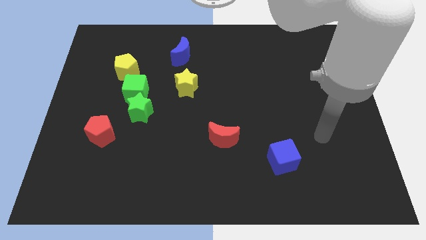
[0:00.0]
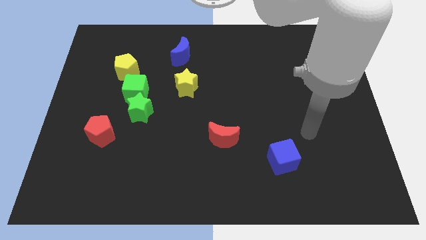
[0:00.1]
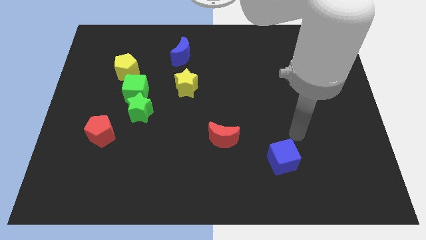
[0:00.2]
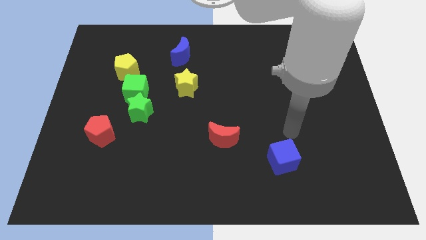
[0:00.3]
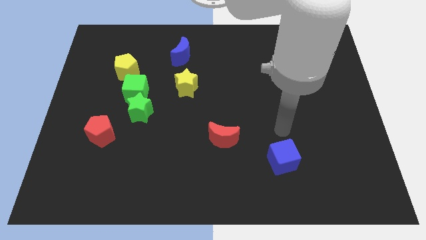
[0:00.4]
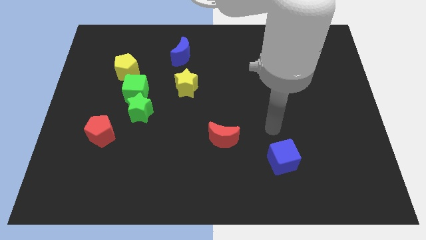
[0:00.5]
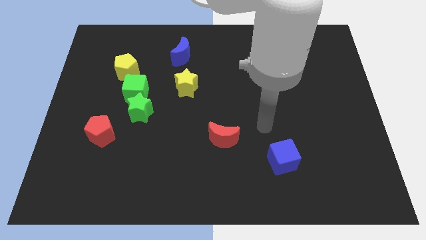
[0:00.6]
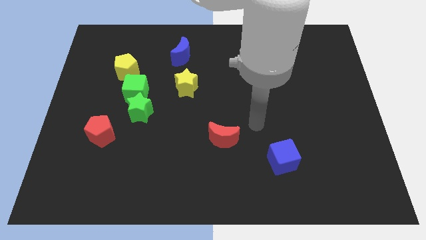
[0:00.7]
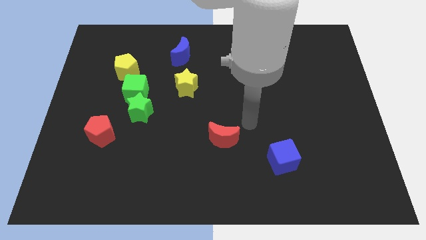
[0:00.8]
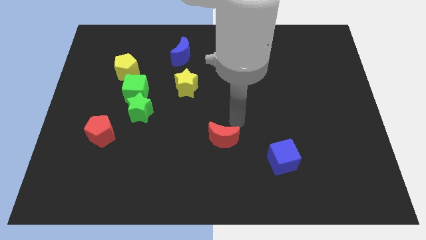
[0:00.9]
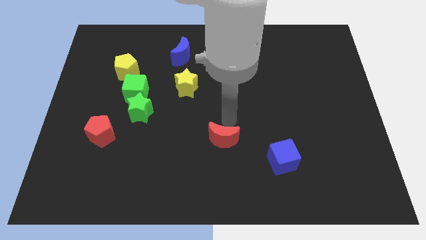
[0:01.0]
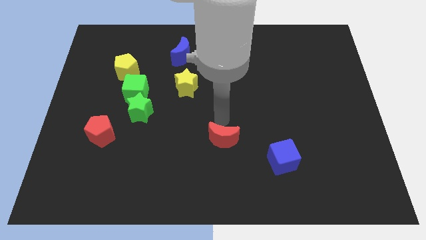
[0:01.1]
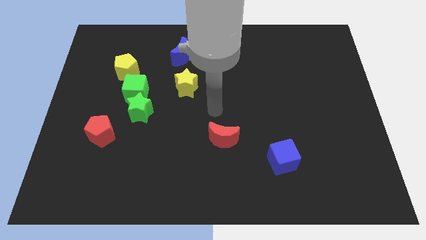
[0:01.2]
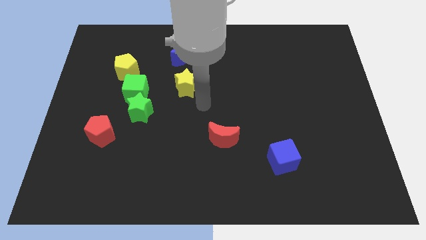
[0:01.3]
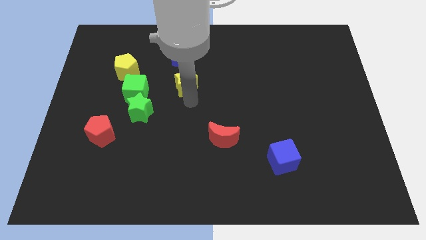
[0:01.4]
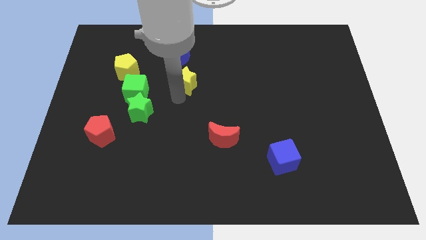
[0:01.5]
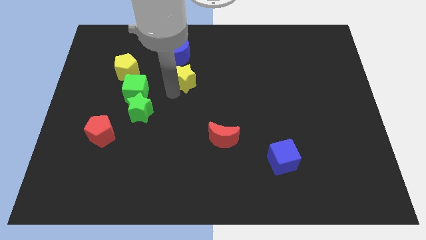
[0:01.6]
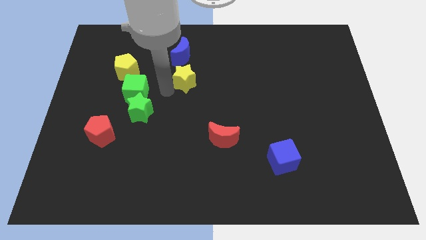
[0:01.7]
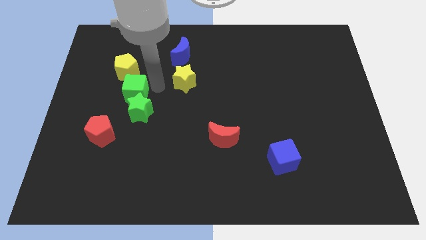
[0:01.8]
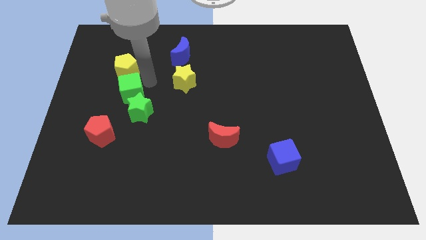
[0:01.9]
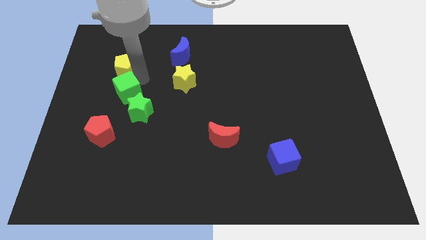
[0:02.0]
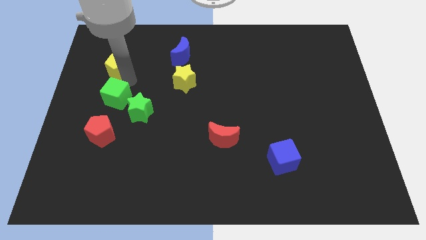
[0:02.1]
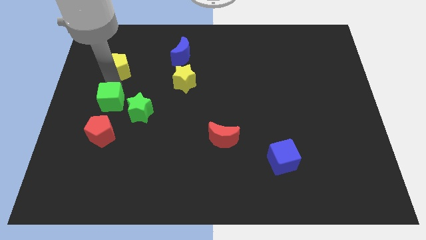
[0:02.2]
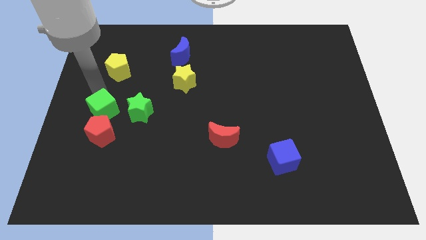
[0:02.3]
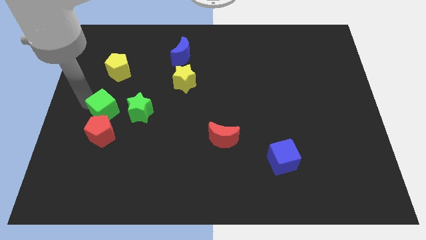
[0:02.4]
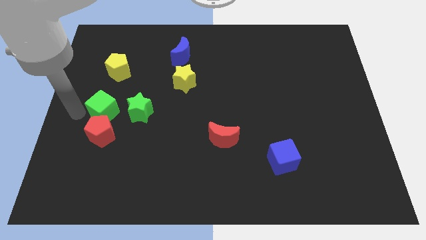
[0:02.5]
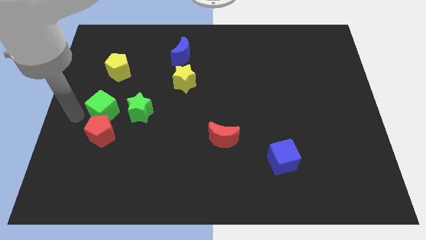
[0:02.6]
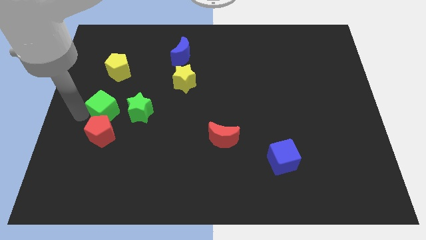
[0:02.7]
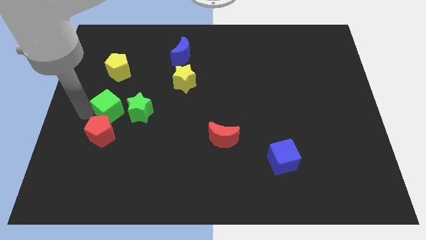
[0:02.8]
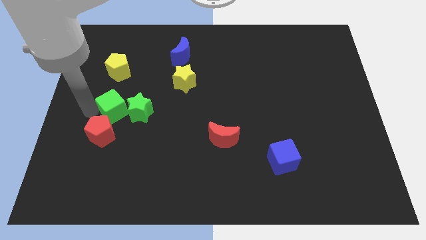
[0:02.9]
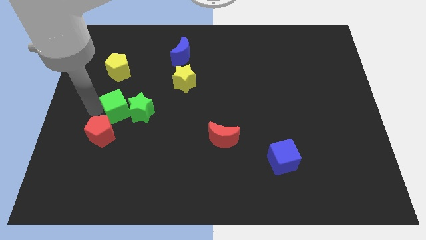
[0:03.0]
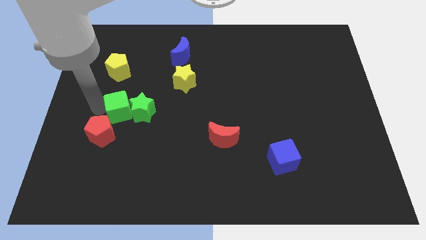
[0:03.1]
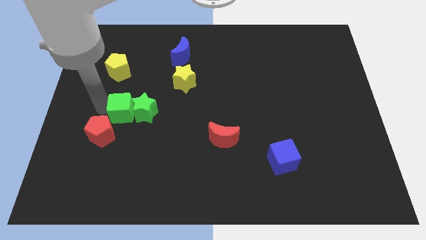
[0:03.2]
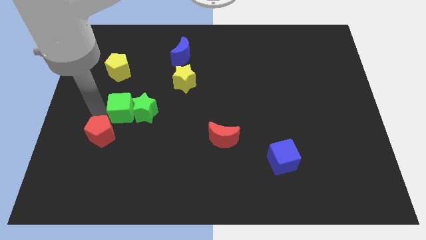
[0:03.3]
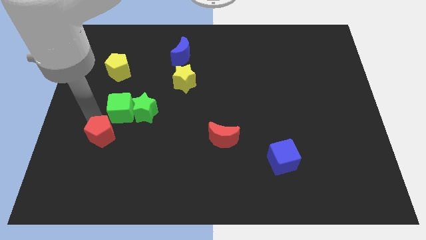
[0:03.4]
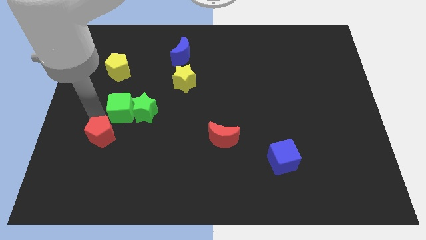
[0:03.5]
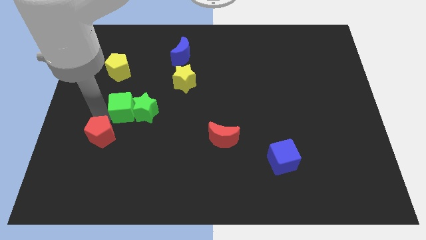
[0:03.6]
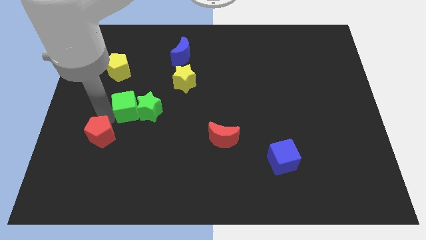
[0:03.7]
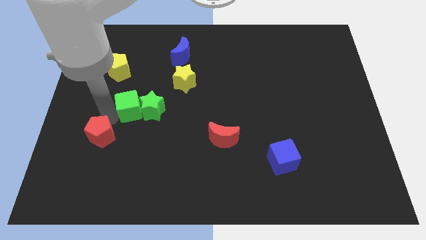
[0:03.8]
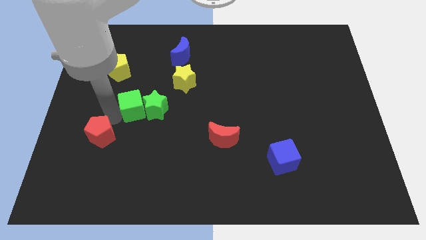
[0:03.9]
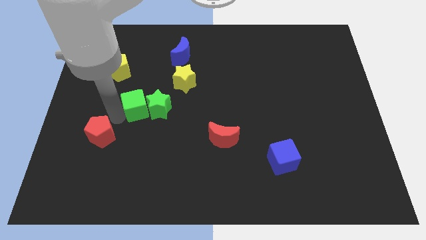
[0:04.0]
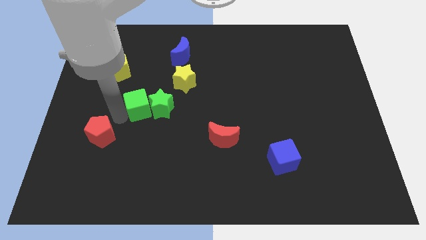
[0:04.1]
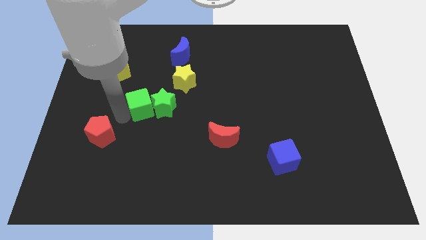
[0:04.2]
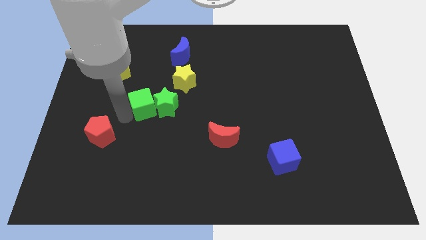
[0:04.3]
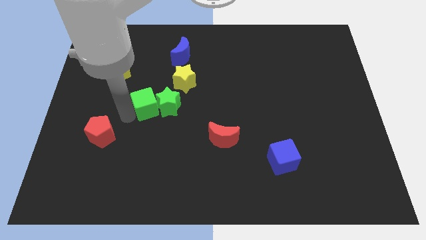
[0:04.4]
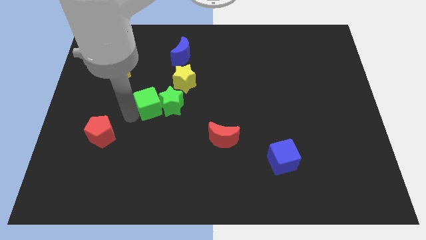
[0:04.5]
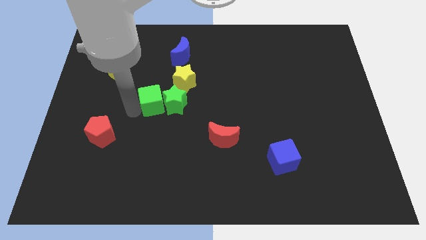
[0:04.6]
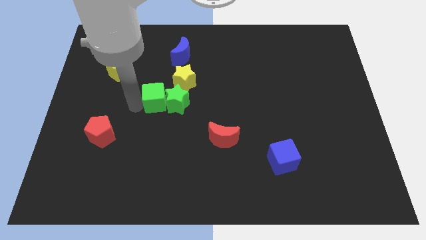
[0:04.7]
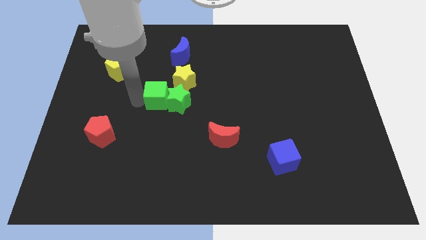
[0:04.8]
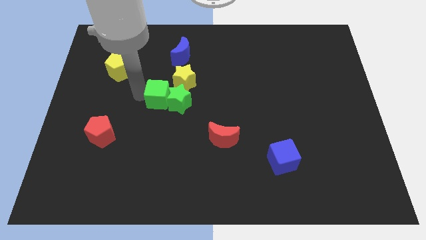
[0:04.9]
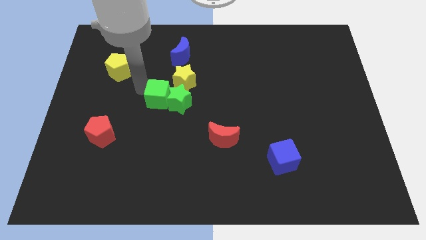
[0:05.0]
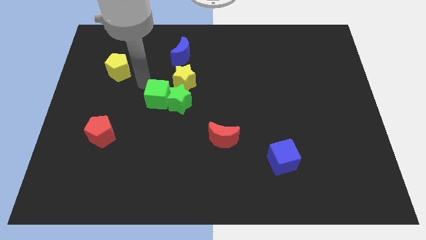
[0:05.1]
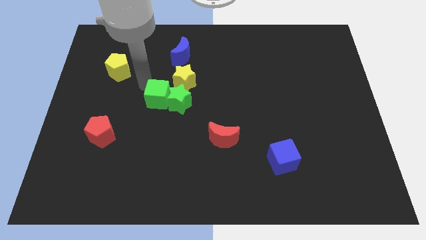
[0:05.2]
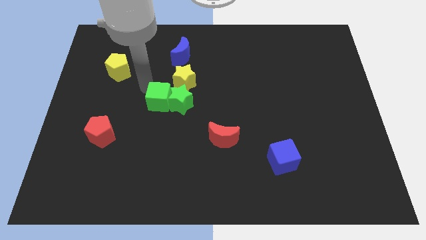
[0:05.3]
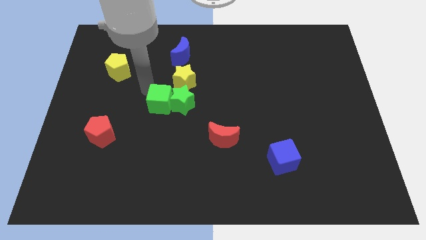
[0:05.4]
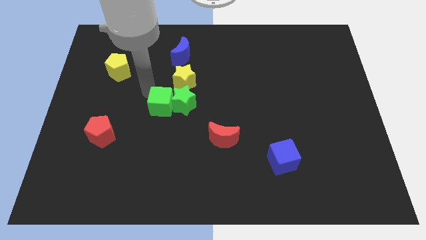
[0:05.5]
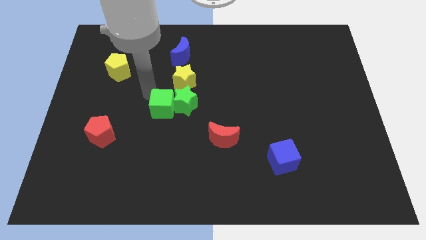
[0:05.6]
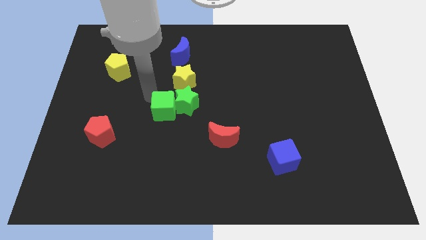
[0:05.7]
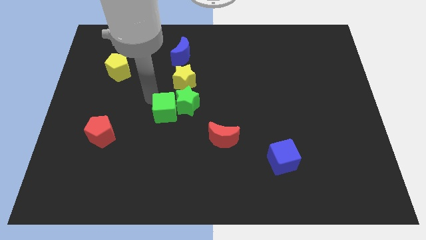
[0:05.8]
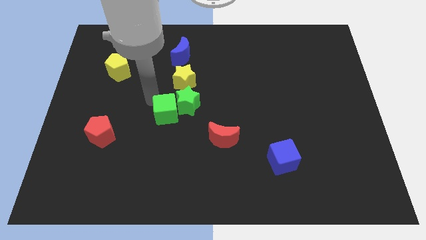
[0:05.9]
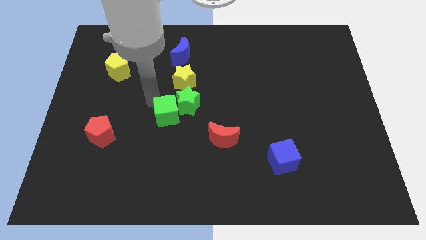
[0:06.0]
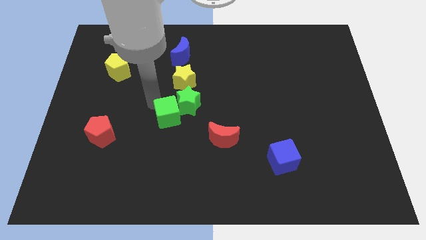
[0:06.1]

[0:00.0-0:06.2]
pull the green cube apart from the green star and yellow pentagon

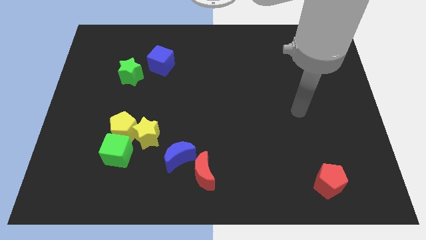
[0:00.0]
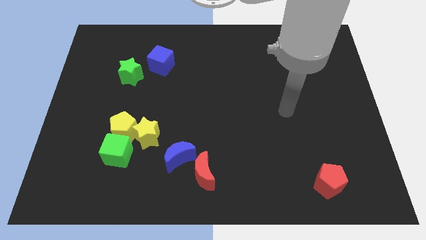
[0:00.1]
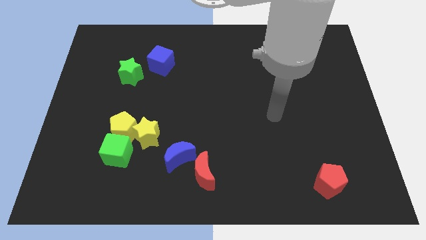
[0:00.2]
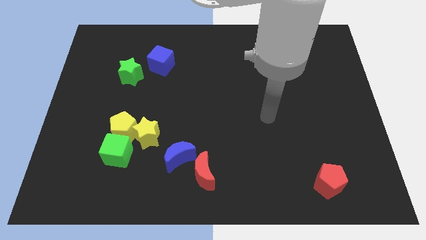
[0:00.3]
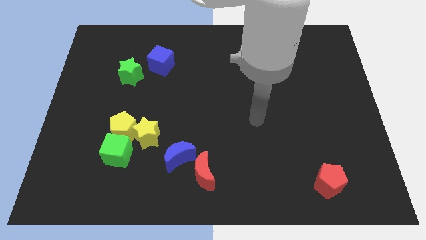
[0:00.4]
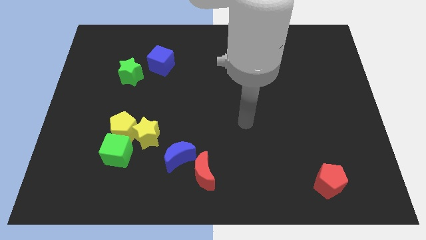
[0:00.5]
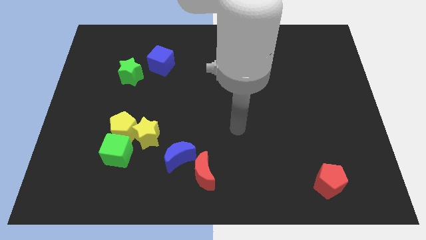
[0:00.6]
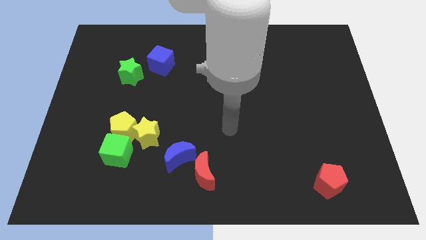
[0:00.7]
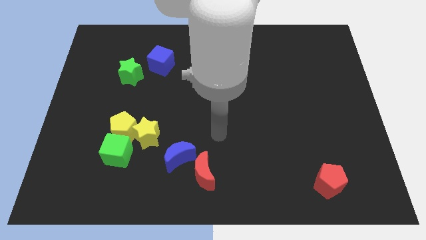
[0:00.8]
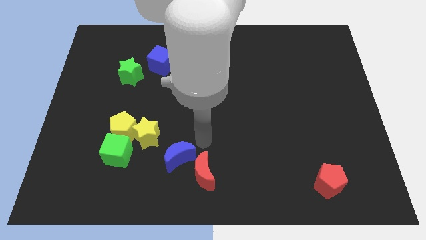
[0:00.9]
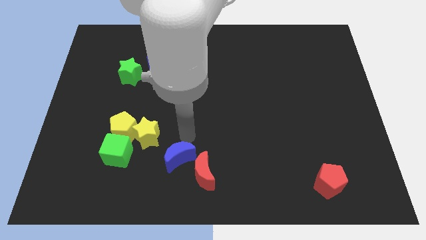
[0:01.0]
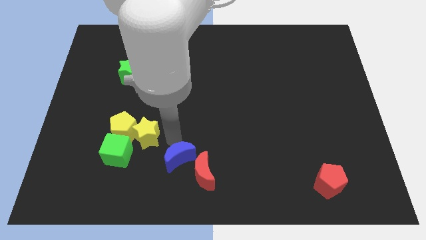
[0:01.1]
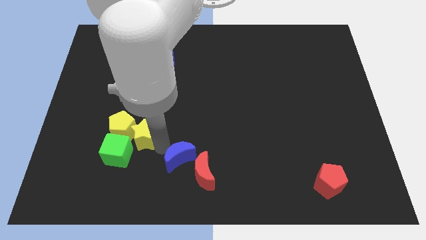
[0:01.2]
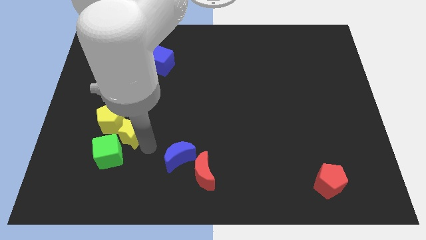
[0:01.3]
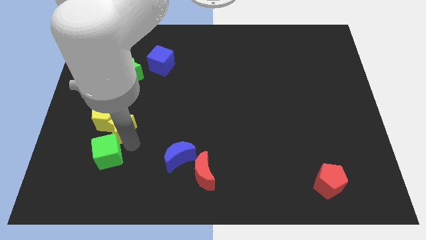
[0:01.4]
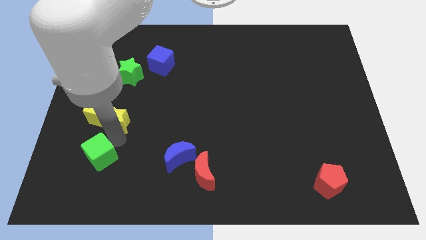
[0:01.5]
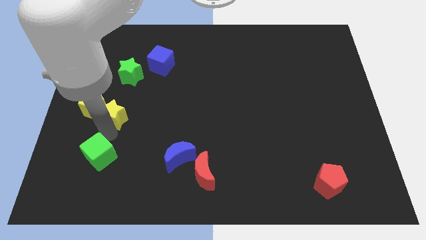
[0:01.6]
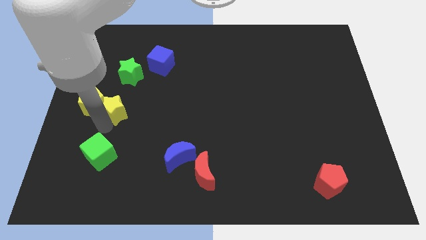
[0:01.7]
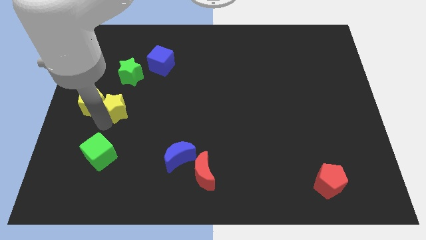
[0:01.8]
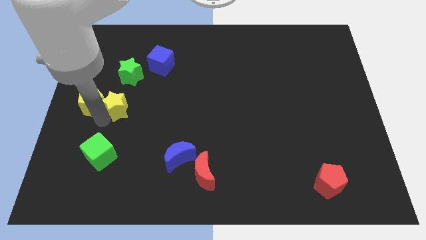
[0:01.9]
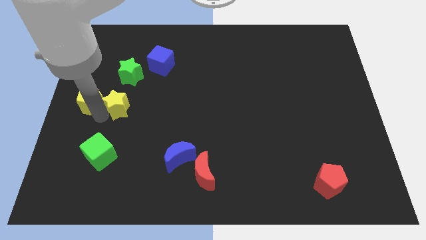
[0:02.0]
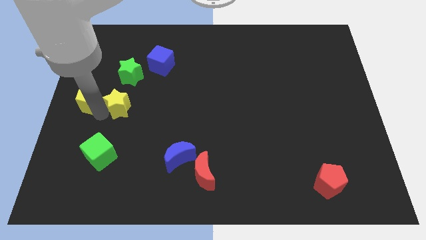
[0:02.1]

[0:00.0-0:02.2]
move the yellow pentagon away from the yellow star and green cube

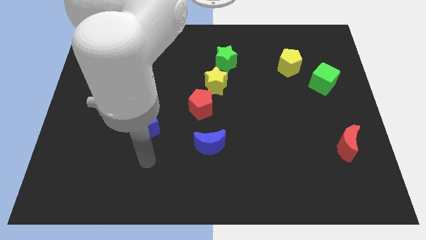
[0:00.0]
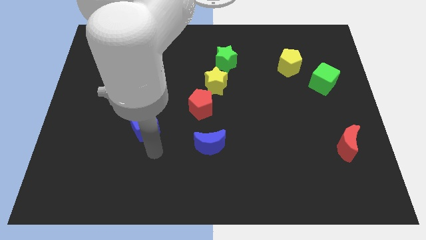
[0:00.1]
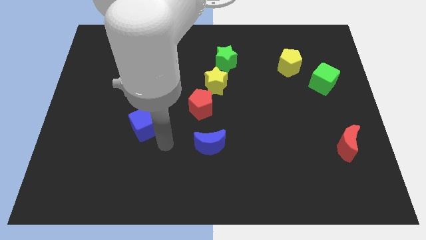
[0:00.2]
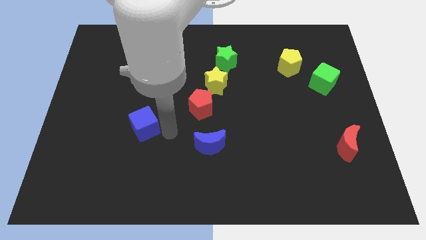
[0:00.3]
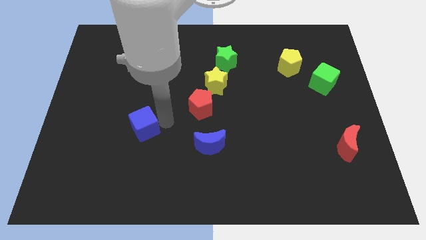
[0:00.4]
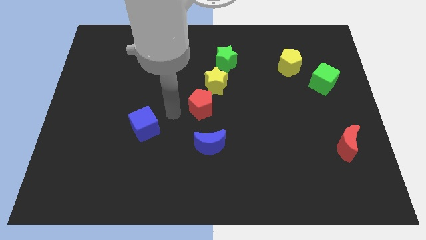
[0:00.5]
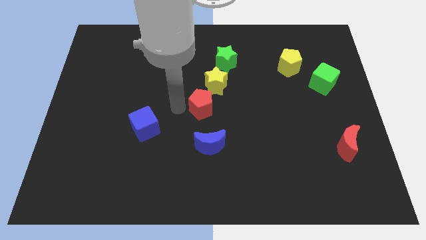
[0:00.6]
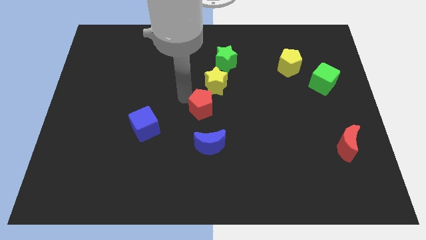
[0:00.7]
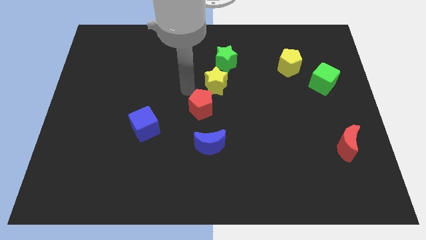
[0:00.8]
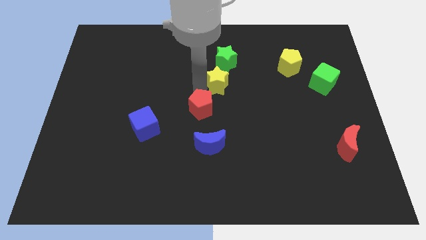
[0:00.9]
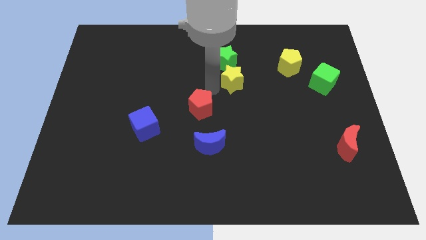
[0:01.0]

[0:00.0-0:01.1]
move the red pentagon away from the yellow star
